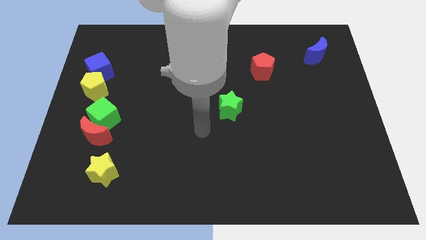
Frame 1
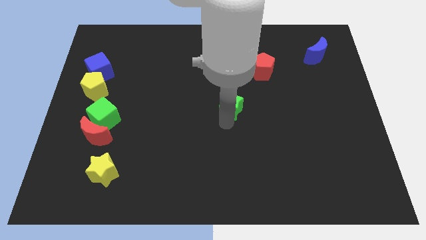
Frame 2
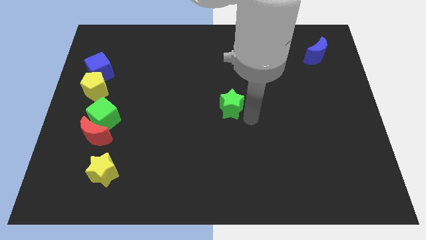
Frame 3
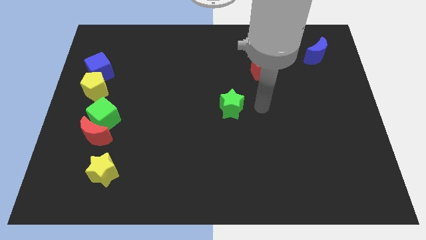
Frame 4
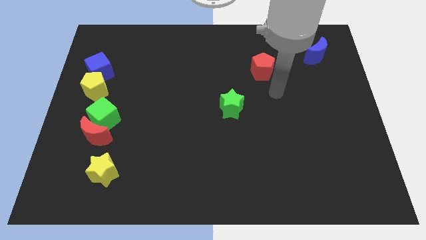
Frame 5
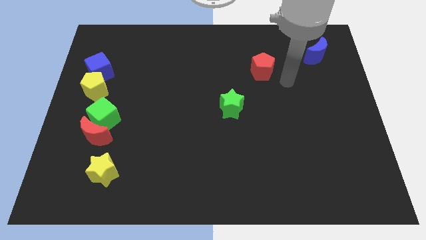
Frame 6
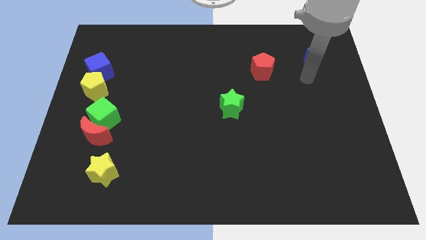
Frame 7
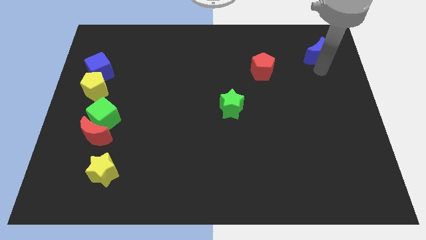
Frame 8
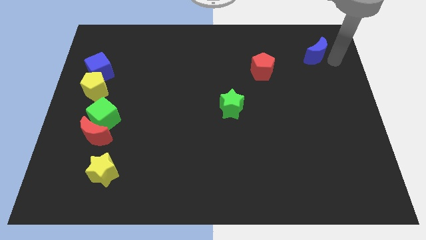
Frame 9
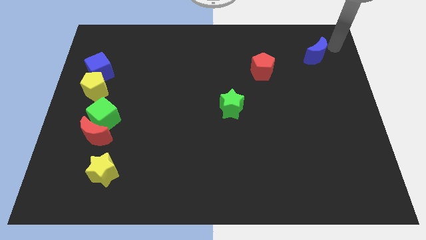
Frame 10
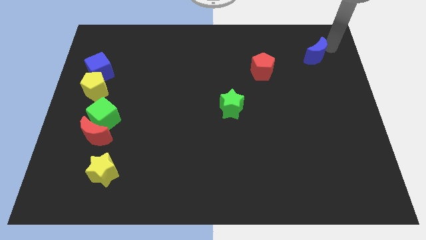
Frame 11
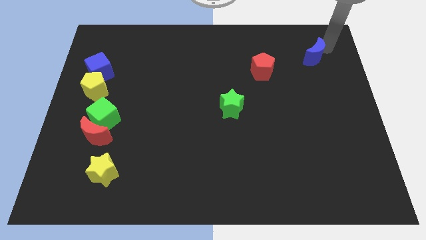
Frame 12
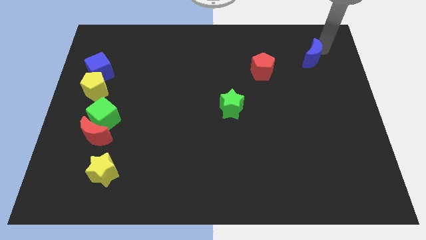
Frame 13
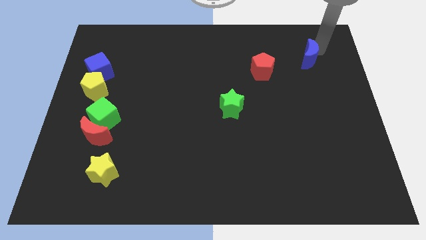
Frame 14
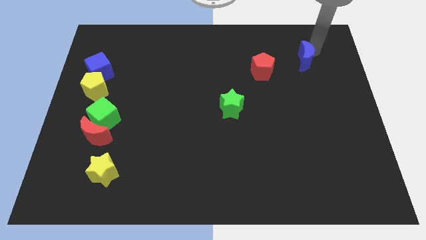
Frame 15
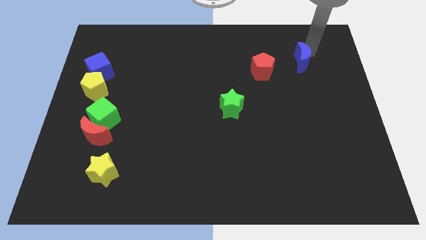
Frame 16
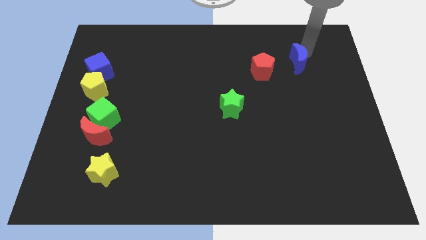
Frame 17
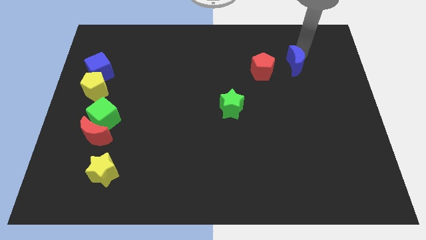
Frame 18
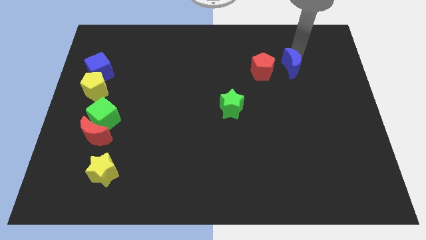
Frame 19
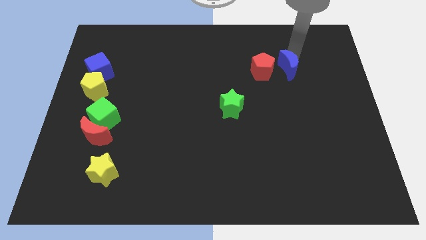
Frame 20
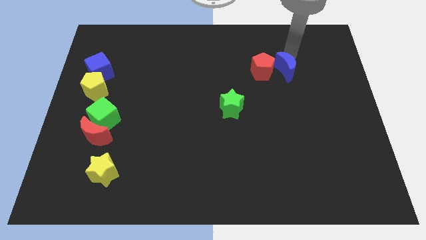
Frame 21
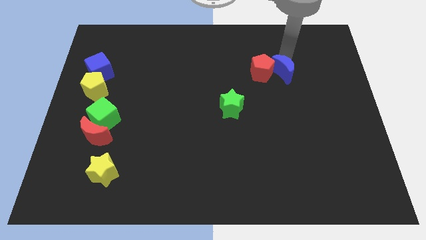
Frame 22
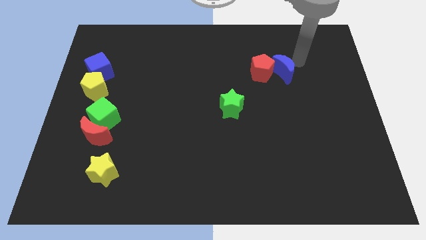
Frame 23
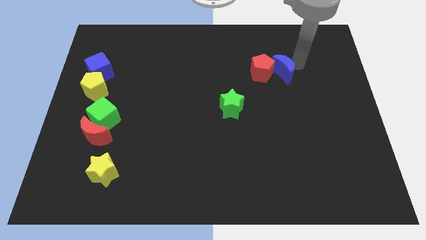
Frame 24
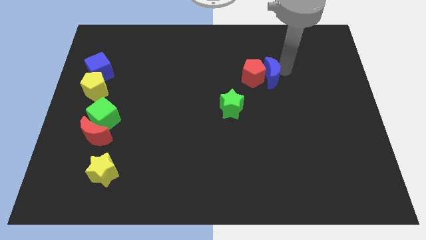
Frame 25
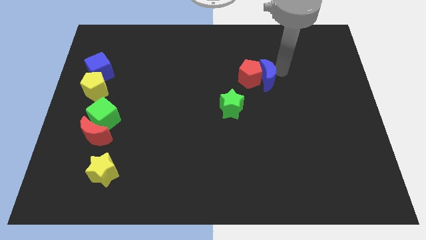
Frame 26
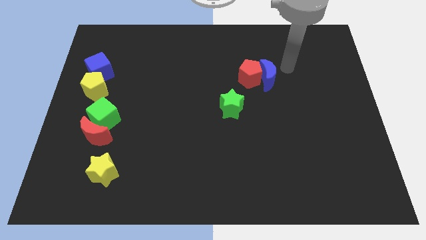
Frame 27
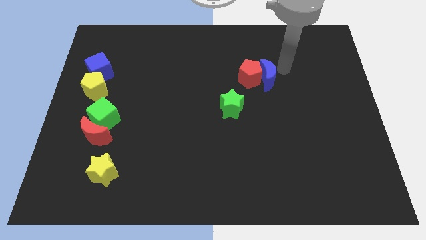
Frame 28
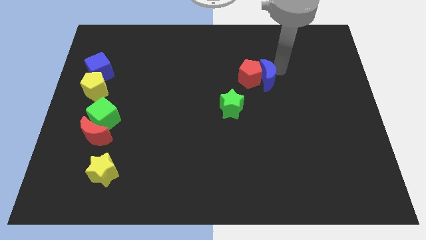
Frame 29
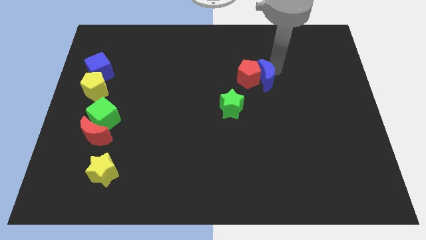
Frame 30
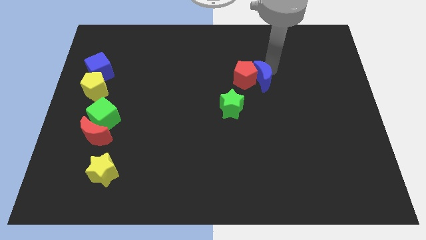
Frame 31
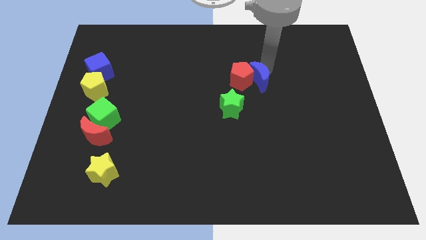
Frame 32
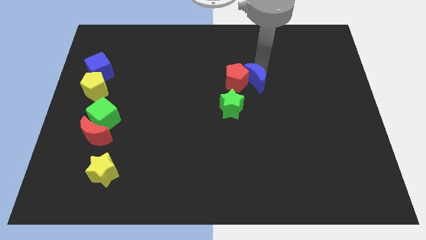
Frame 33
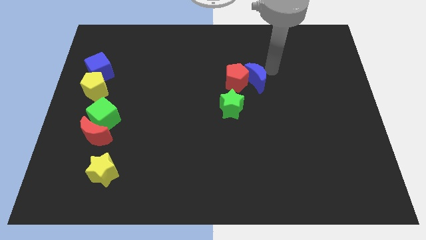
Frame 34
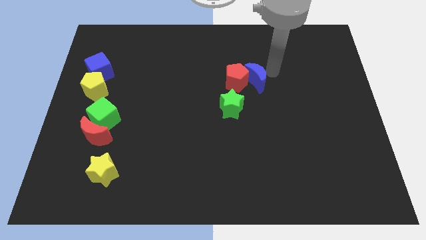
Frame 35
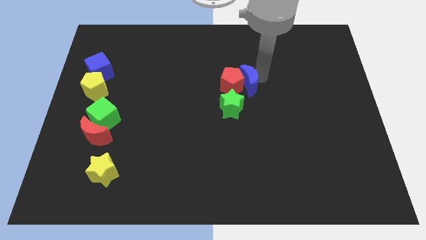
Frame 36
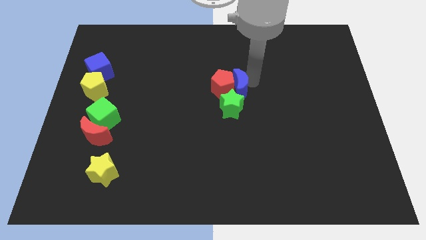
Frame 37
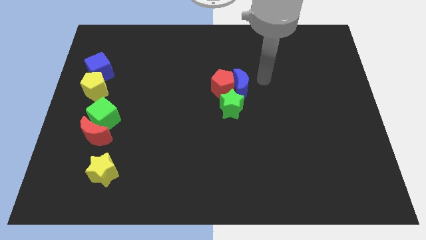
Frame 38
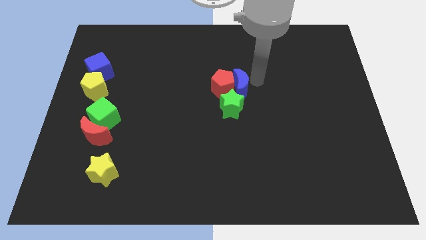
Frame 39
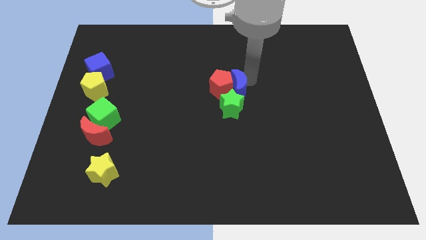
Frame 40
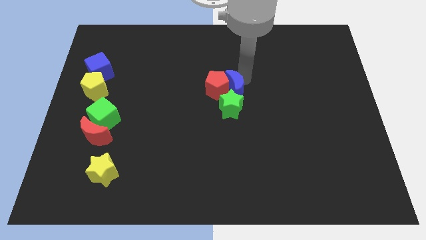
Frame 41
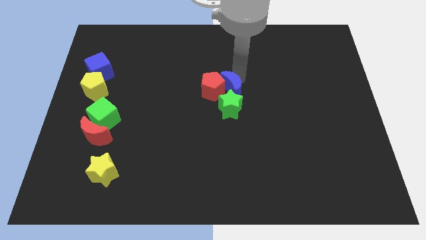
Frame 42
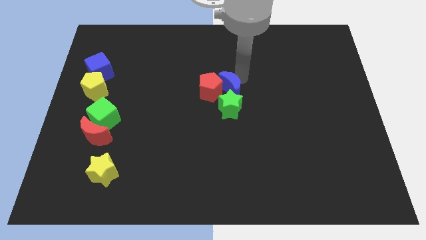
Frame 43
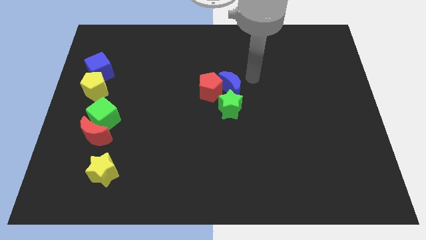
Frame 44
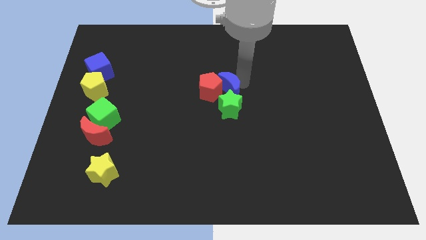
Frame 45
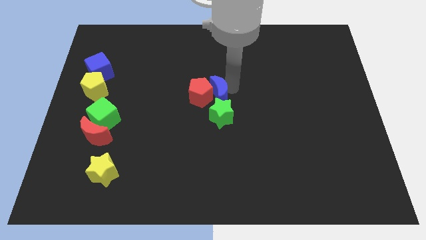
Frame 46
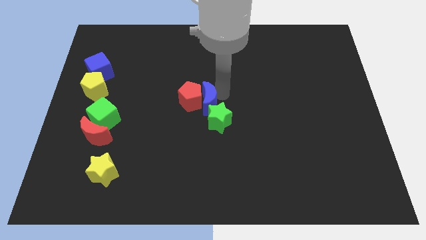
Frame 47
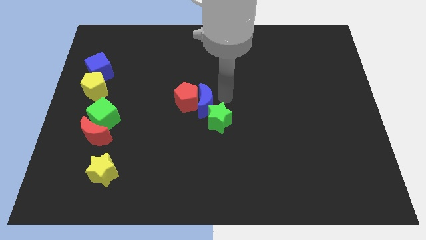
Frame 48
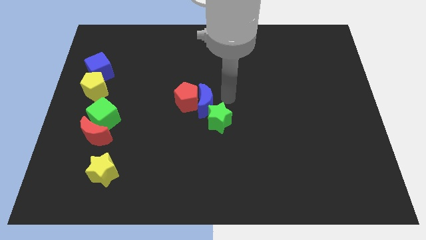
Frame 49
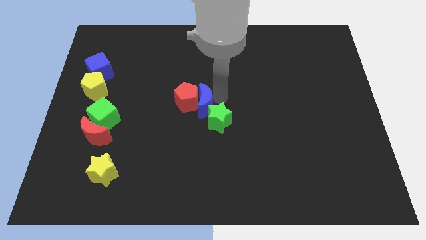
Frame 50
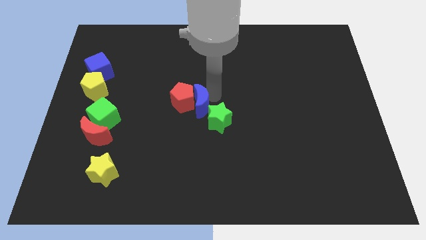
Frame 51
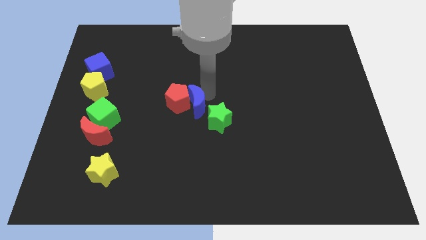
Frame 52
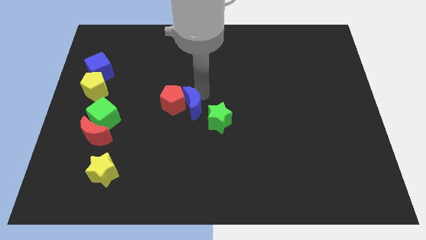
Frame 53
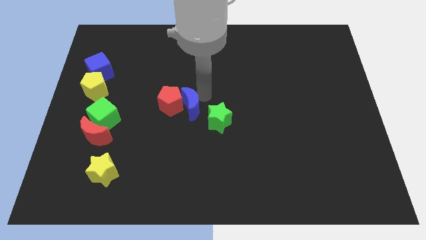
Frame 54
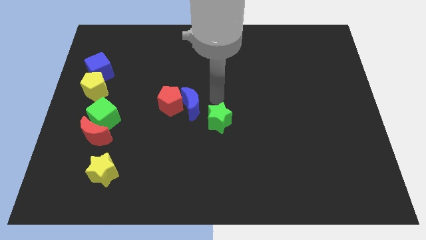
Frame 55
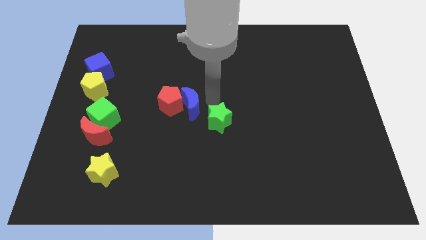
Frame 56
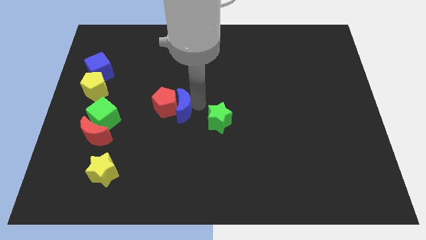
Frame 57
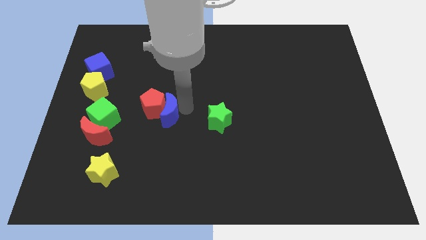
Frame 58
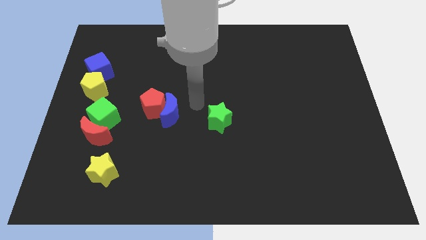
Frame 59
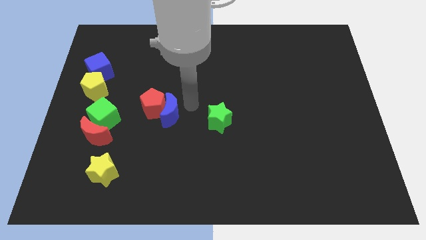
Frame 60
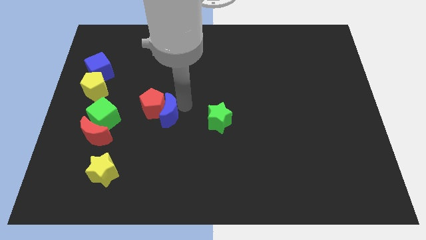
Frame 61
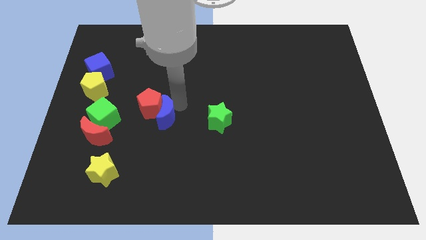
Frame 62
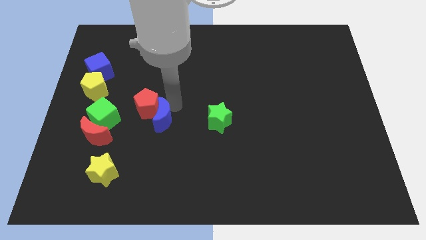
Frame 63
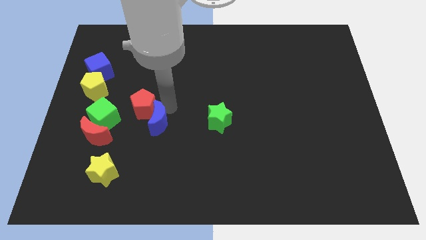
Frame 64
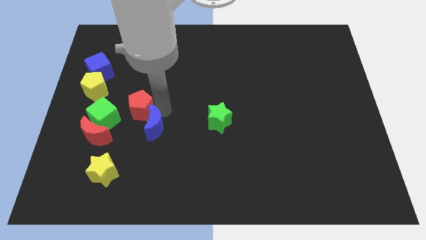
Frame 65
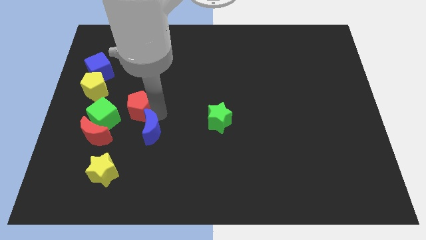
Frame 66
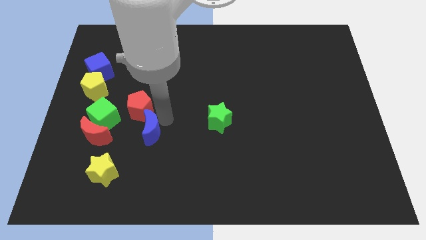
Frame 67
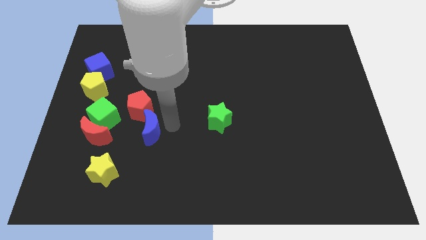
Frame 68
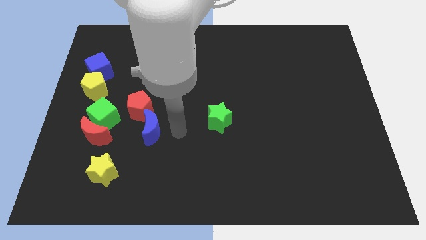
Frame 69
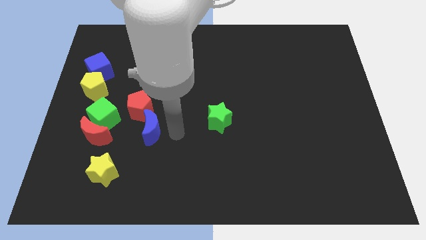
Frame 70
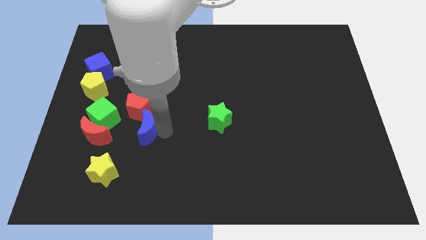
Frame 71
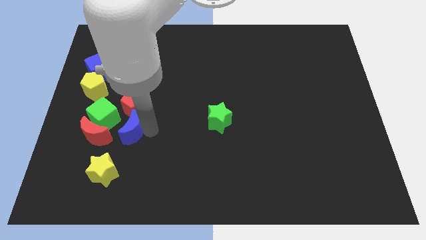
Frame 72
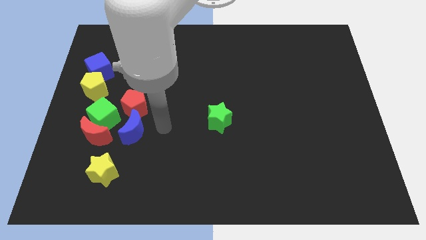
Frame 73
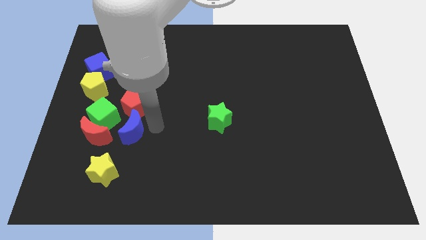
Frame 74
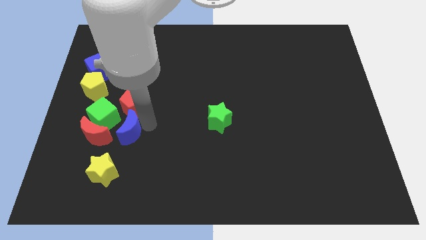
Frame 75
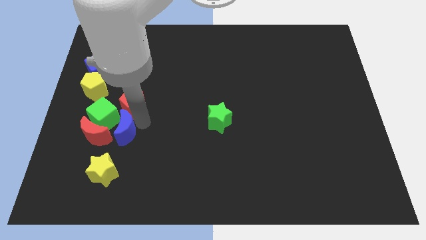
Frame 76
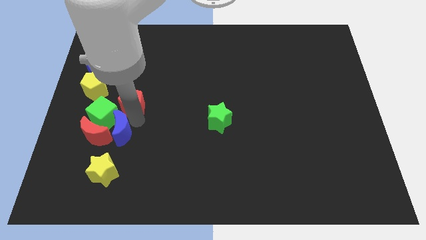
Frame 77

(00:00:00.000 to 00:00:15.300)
move the blue moon to the red moon
